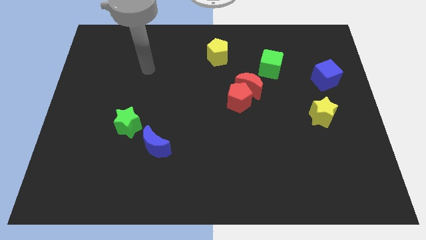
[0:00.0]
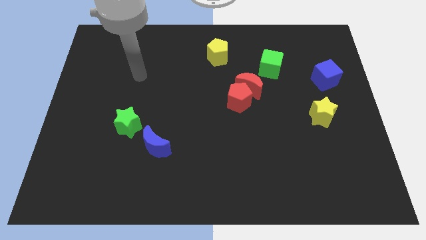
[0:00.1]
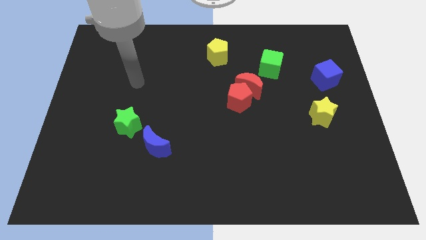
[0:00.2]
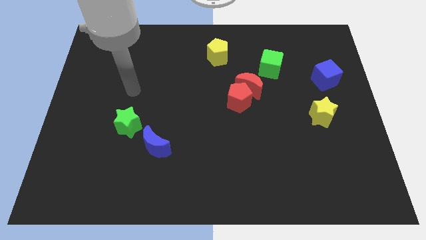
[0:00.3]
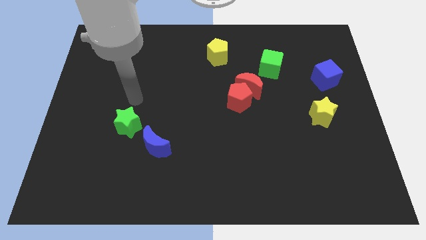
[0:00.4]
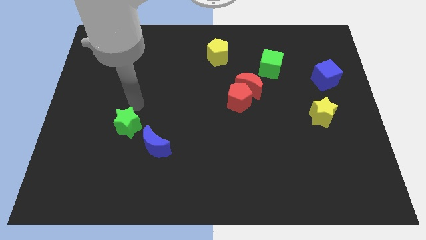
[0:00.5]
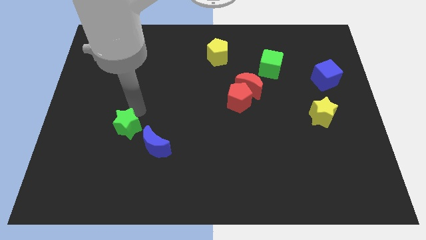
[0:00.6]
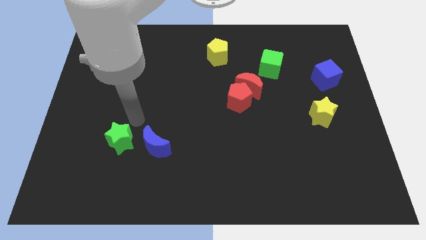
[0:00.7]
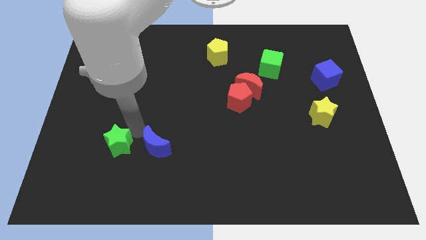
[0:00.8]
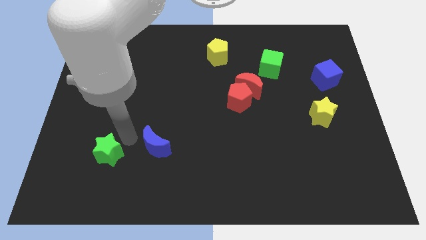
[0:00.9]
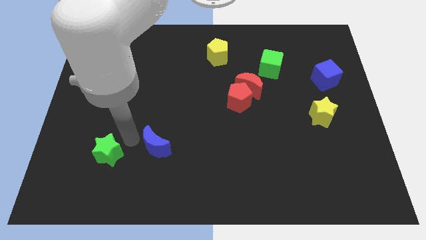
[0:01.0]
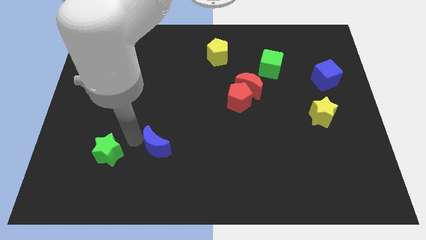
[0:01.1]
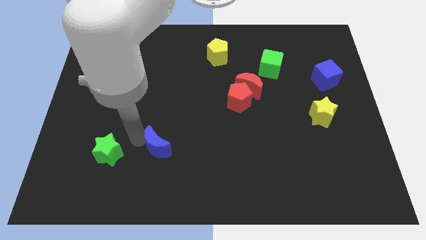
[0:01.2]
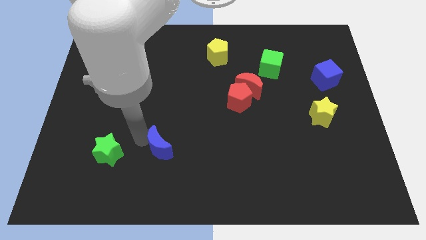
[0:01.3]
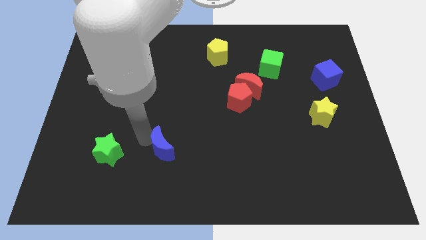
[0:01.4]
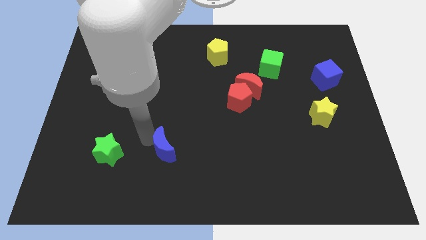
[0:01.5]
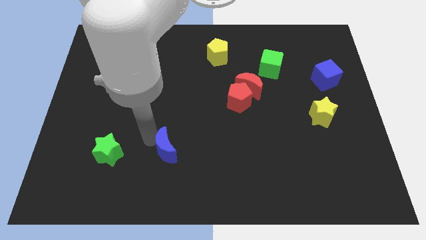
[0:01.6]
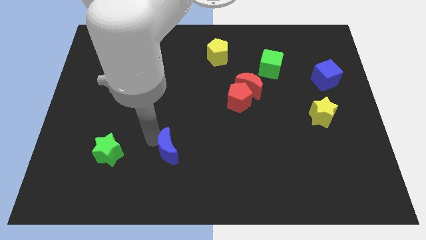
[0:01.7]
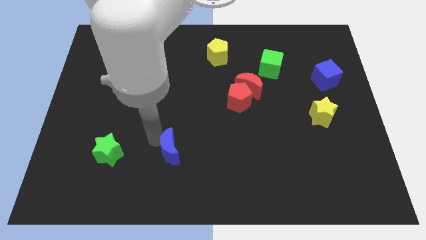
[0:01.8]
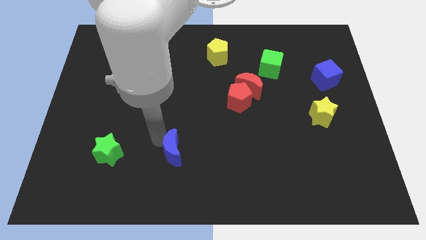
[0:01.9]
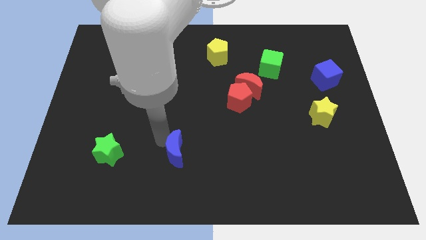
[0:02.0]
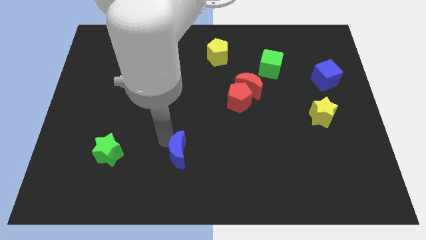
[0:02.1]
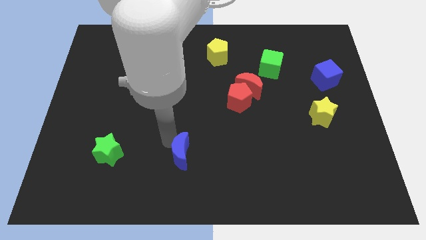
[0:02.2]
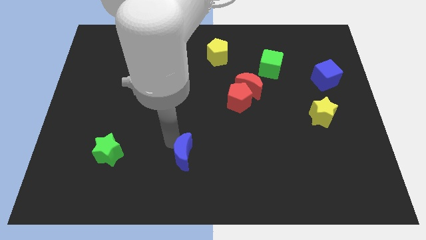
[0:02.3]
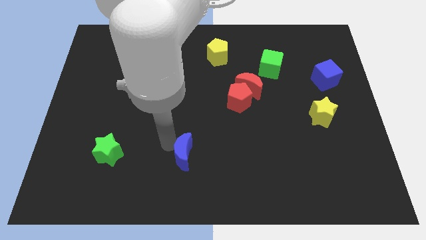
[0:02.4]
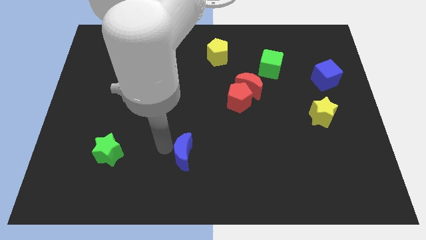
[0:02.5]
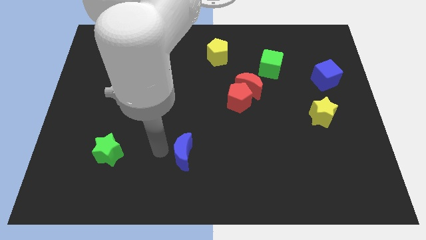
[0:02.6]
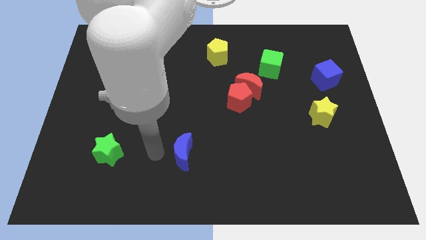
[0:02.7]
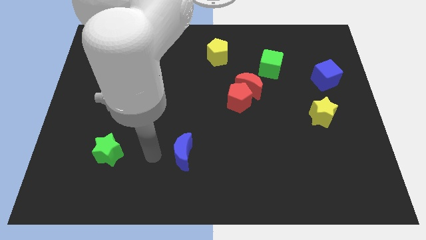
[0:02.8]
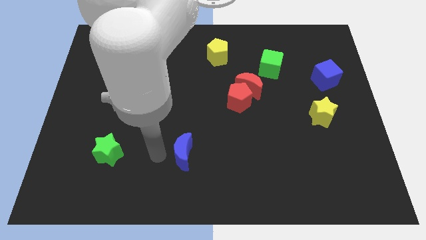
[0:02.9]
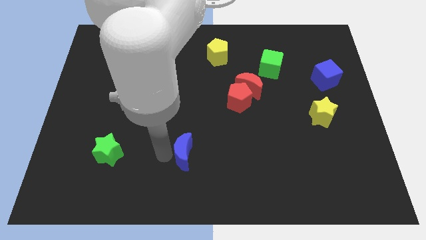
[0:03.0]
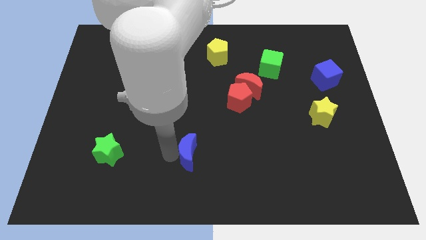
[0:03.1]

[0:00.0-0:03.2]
slide the blue moon somewhat right

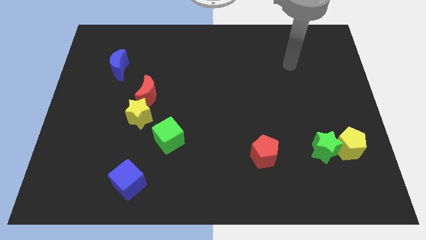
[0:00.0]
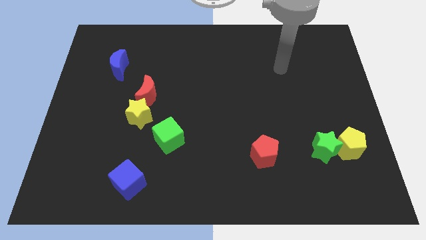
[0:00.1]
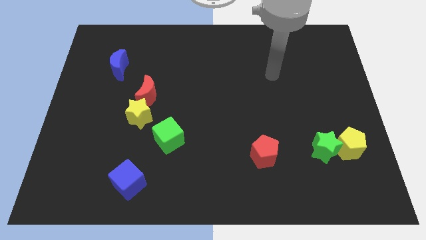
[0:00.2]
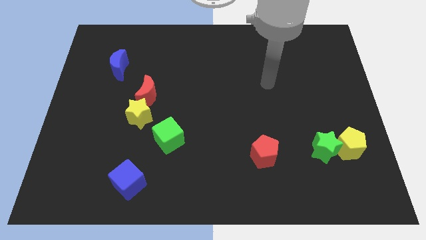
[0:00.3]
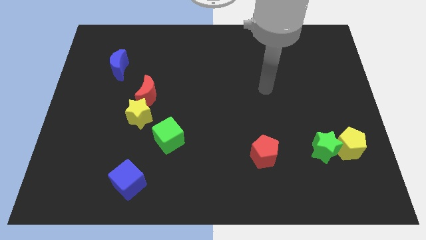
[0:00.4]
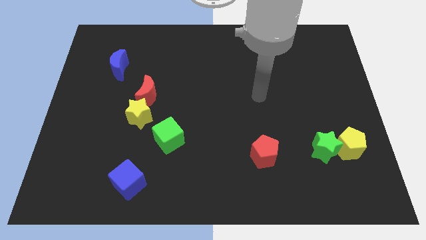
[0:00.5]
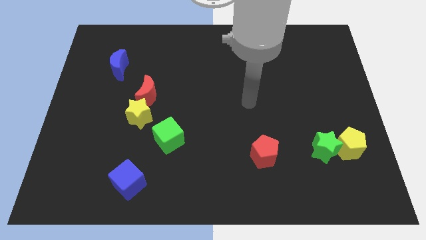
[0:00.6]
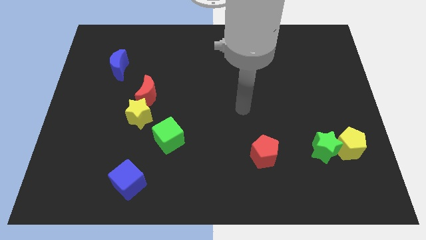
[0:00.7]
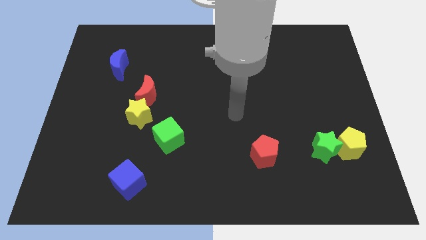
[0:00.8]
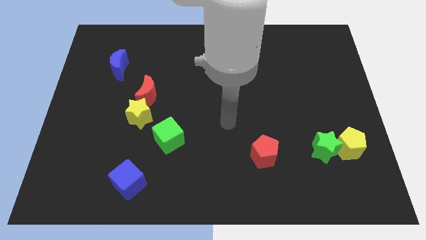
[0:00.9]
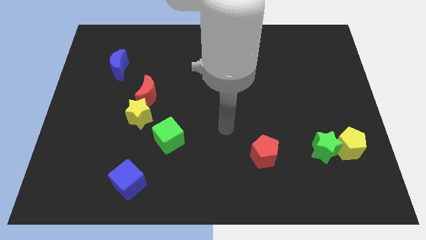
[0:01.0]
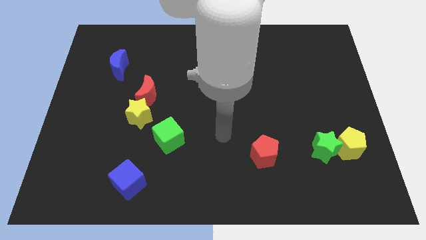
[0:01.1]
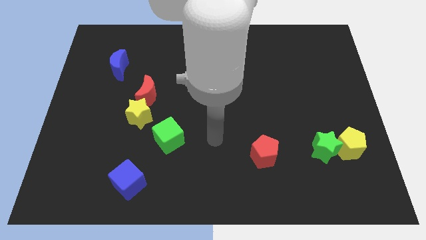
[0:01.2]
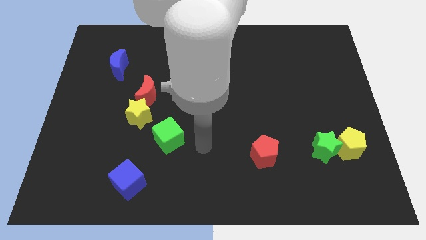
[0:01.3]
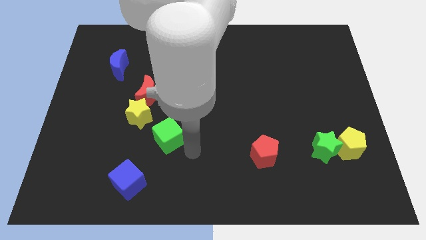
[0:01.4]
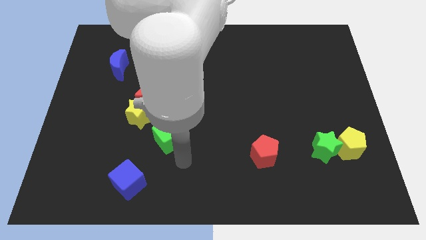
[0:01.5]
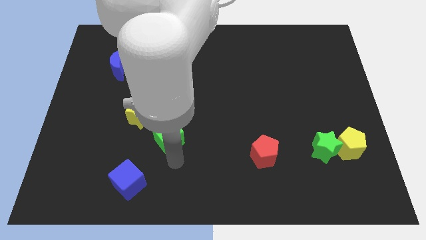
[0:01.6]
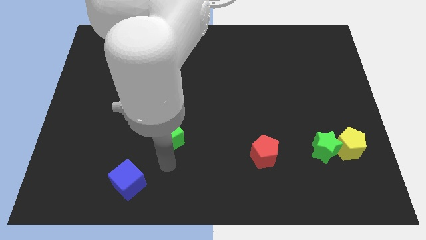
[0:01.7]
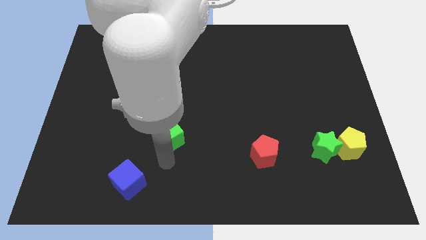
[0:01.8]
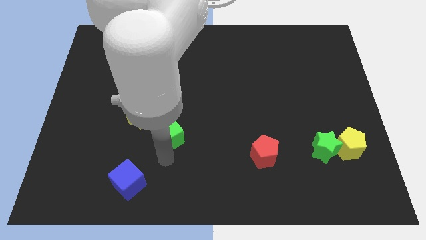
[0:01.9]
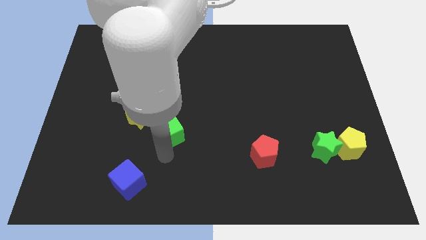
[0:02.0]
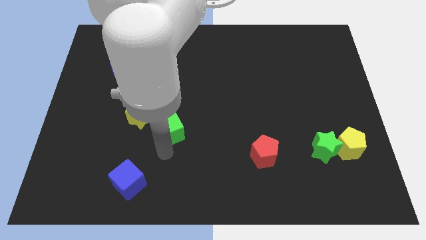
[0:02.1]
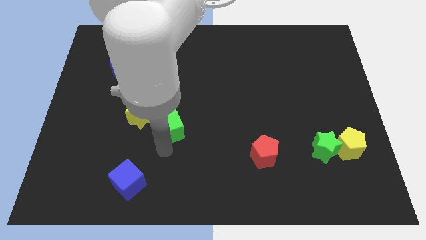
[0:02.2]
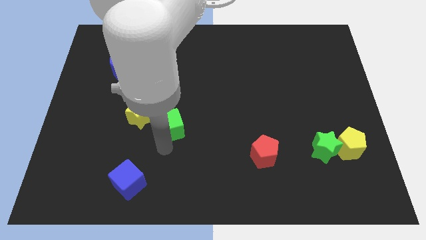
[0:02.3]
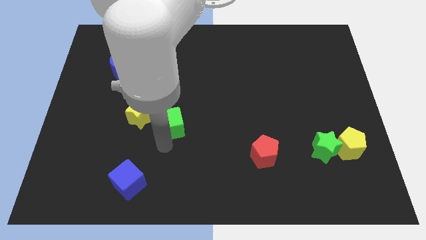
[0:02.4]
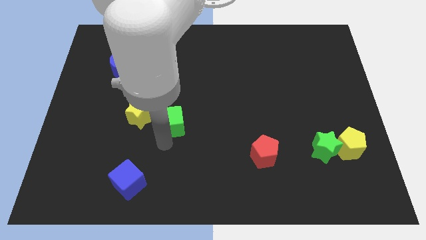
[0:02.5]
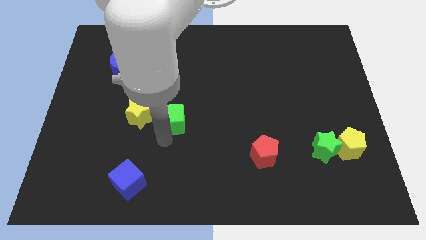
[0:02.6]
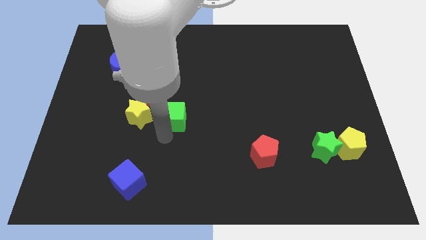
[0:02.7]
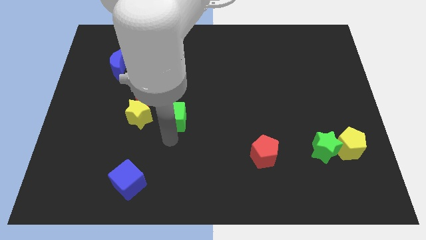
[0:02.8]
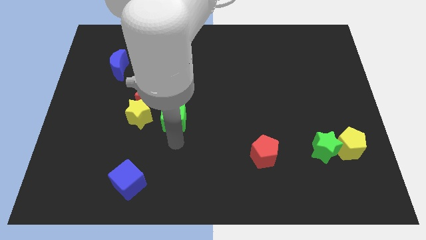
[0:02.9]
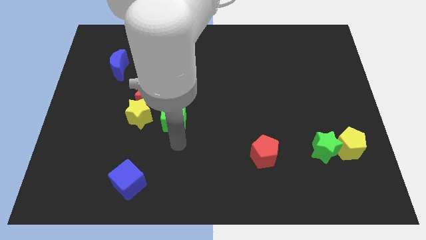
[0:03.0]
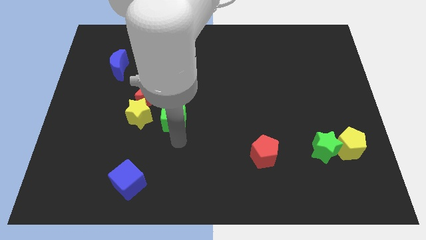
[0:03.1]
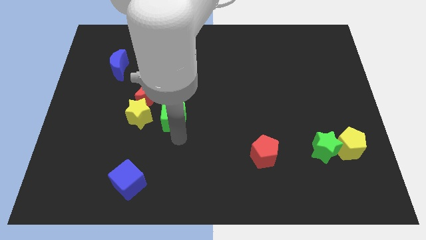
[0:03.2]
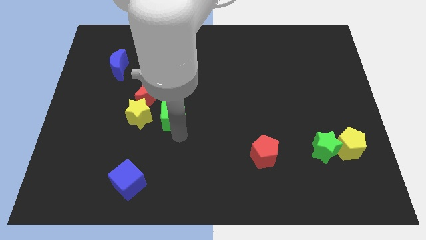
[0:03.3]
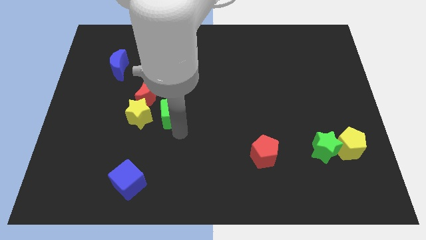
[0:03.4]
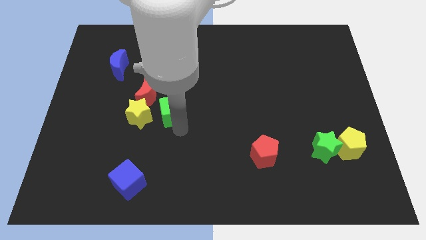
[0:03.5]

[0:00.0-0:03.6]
move the green cube a little upwards

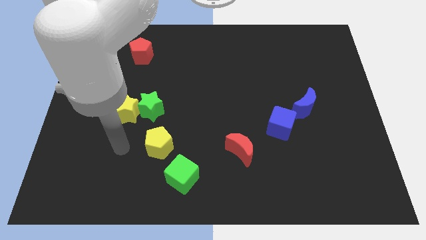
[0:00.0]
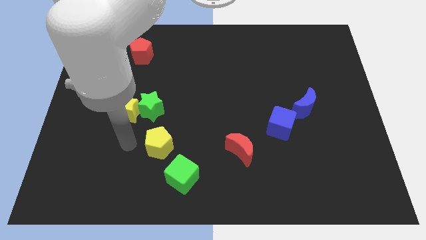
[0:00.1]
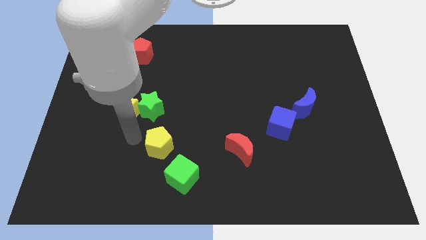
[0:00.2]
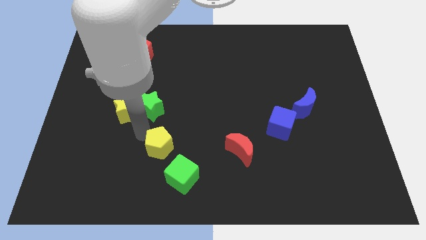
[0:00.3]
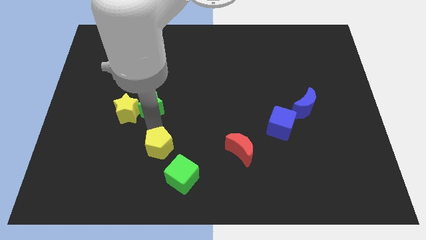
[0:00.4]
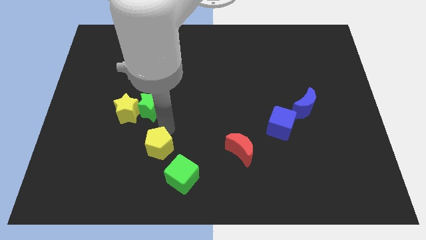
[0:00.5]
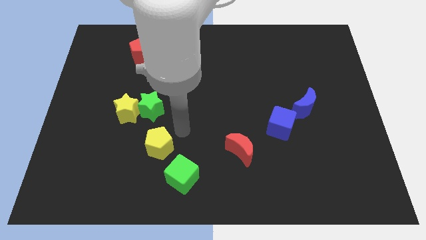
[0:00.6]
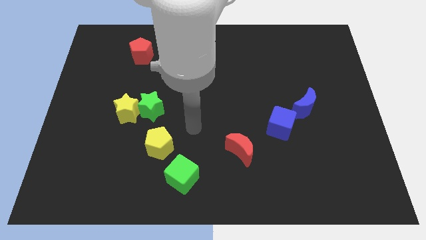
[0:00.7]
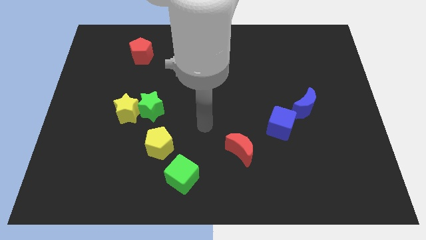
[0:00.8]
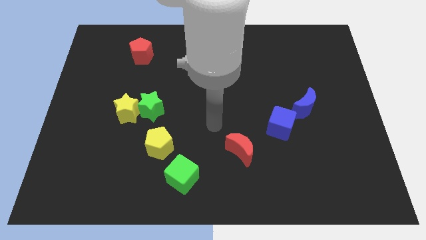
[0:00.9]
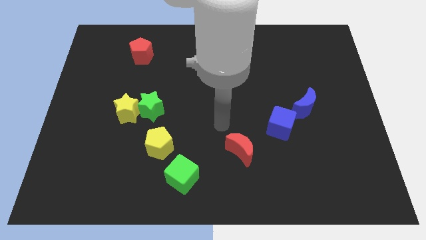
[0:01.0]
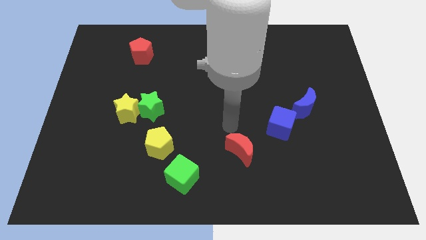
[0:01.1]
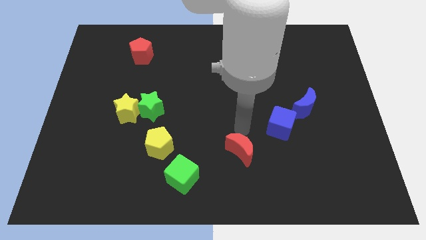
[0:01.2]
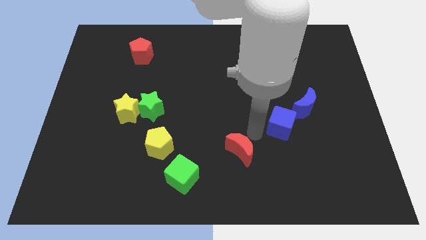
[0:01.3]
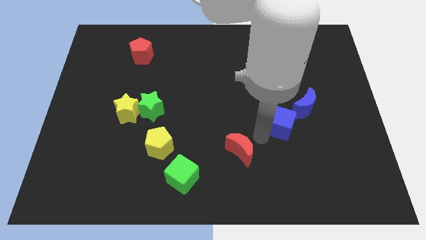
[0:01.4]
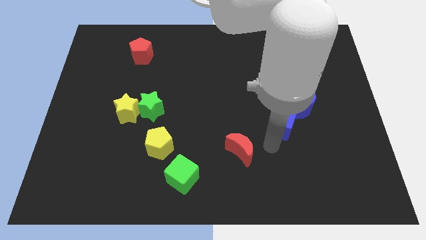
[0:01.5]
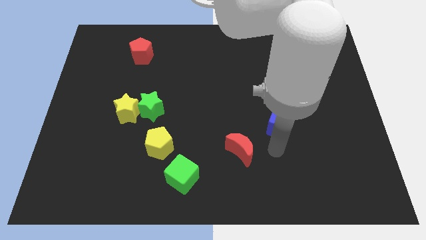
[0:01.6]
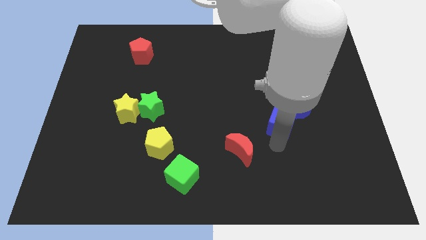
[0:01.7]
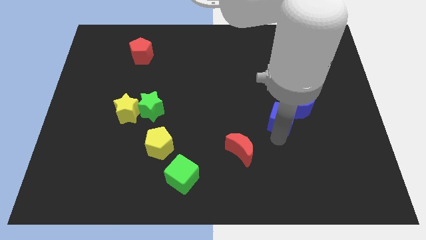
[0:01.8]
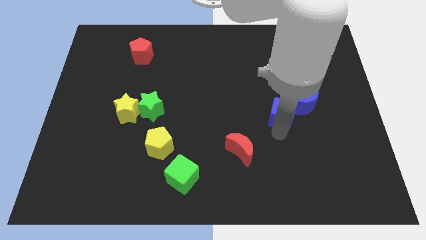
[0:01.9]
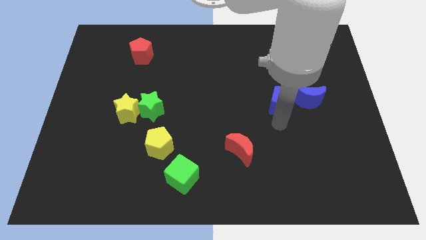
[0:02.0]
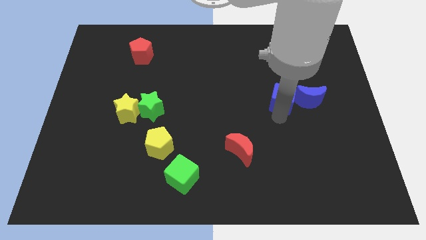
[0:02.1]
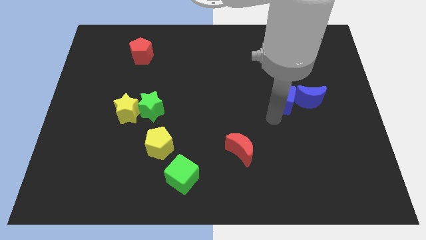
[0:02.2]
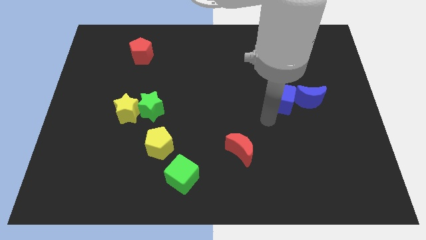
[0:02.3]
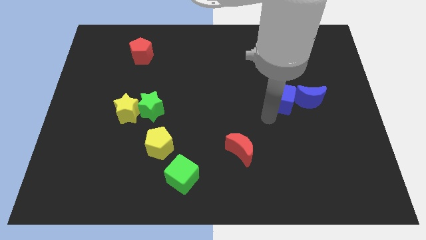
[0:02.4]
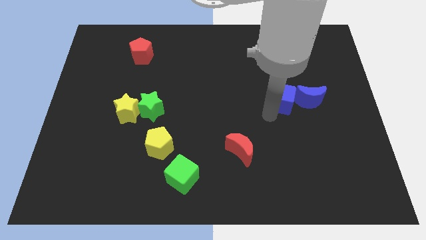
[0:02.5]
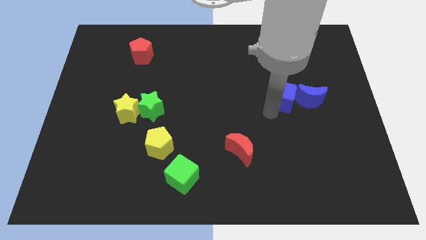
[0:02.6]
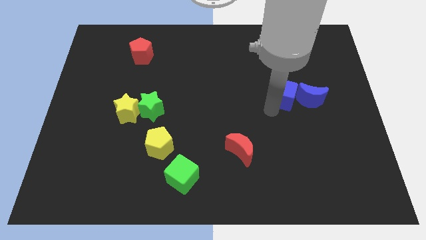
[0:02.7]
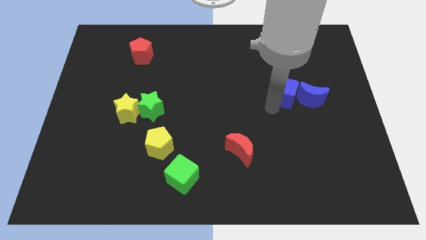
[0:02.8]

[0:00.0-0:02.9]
move the blue cube a bit up and then right
